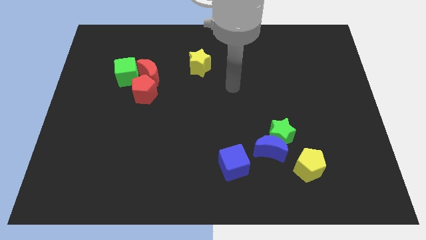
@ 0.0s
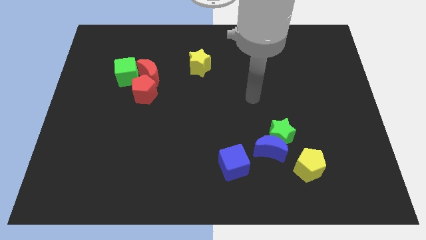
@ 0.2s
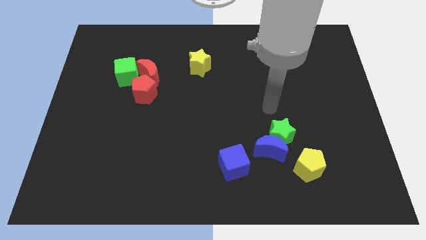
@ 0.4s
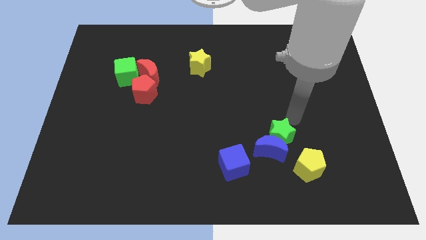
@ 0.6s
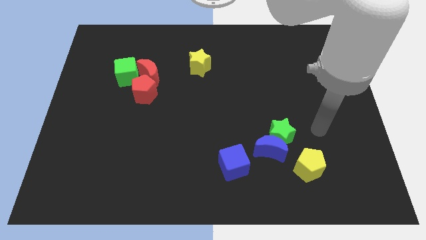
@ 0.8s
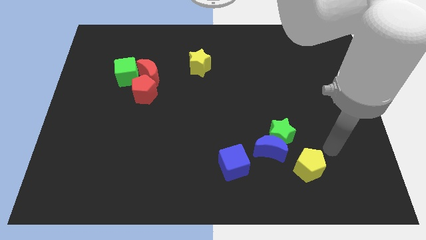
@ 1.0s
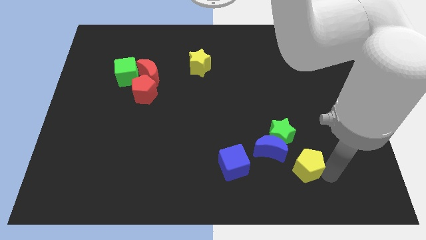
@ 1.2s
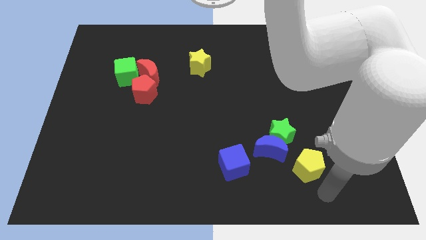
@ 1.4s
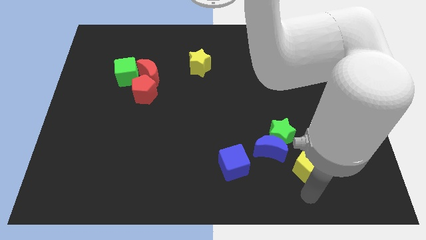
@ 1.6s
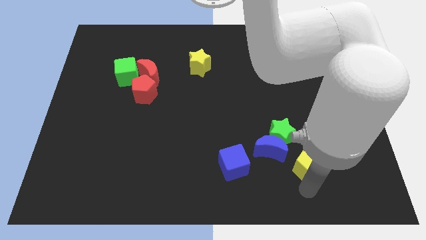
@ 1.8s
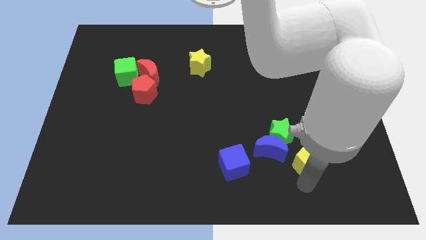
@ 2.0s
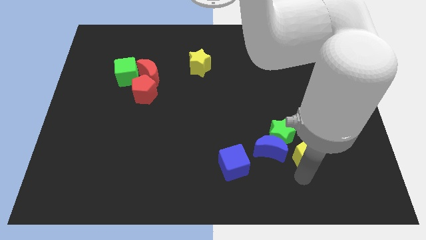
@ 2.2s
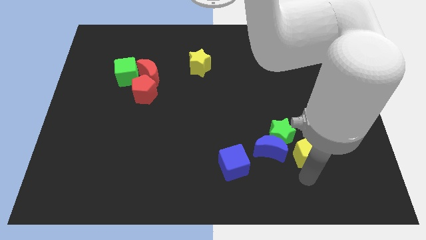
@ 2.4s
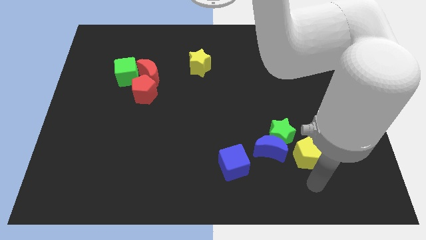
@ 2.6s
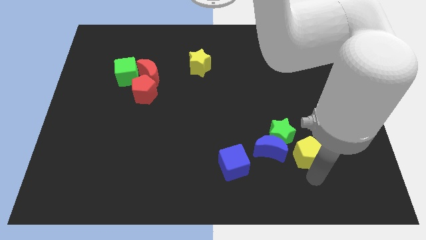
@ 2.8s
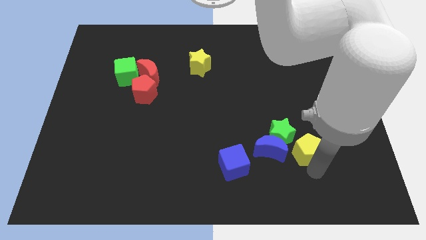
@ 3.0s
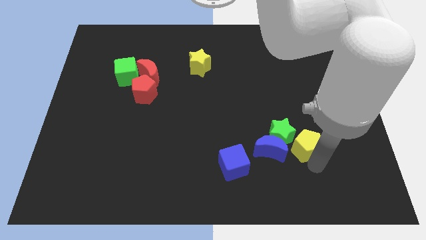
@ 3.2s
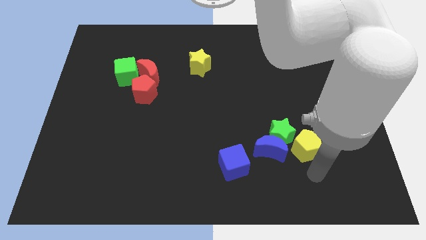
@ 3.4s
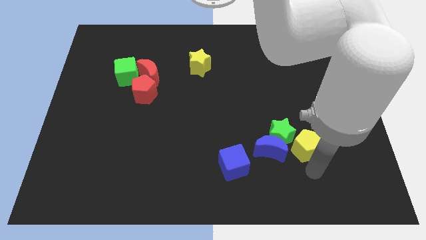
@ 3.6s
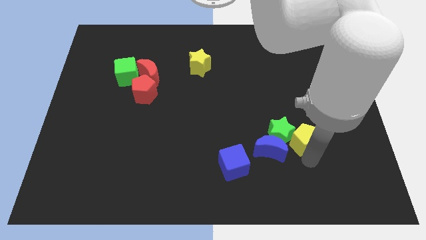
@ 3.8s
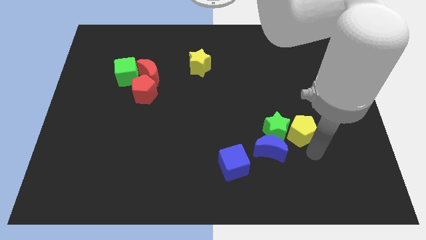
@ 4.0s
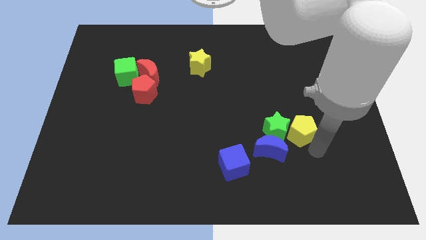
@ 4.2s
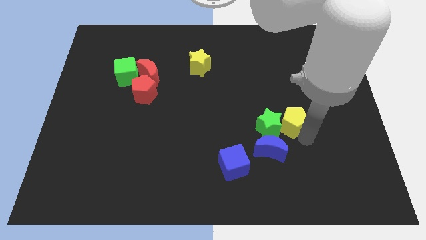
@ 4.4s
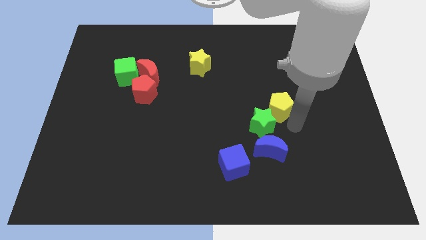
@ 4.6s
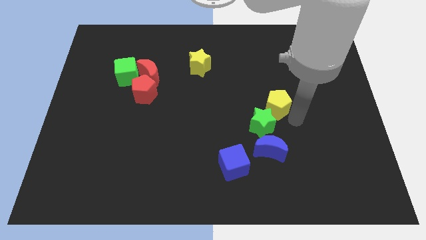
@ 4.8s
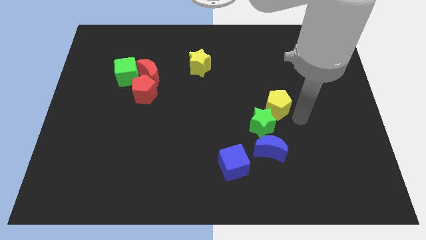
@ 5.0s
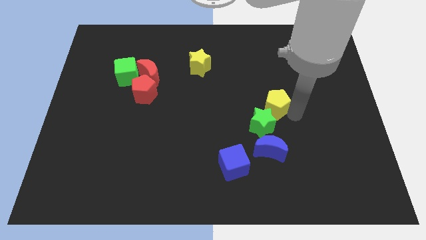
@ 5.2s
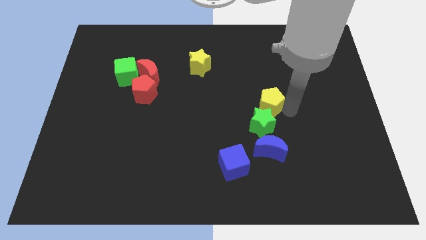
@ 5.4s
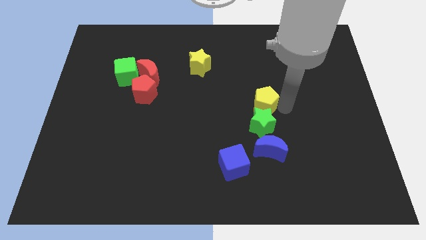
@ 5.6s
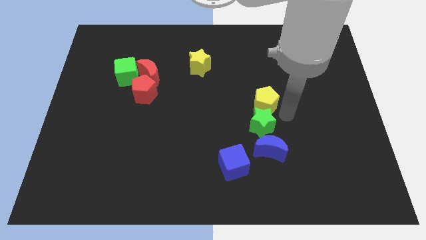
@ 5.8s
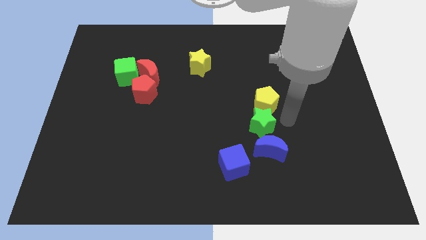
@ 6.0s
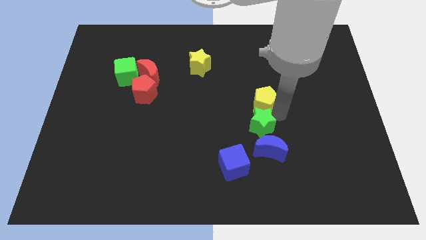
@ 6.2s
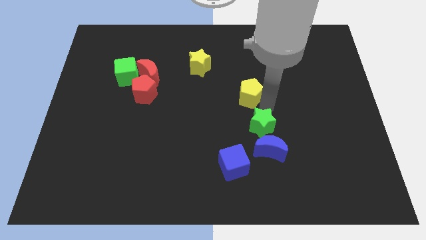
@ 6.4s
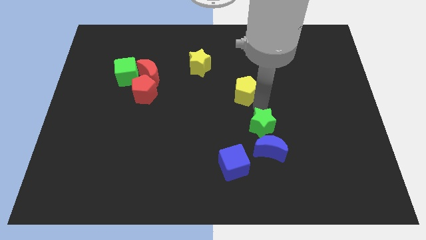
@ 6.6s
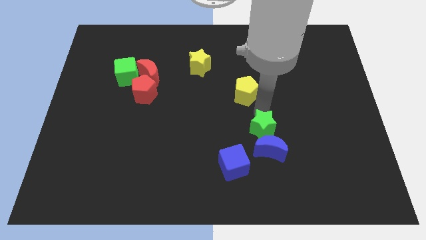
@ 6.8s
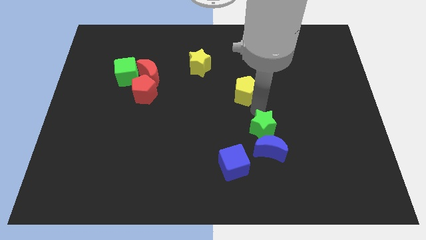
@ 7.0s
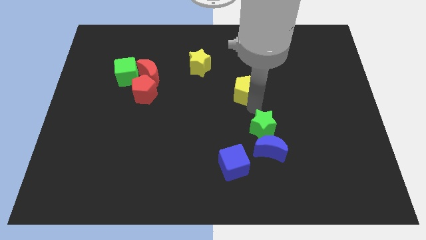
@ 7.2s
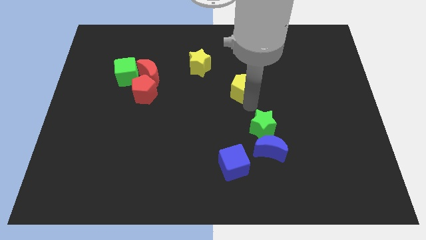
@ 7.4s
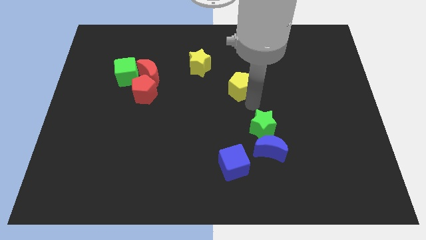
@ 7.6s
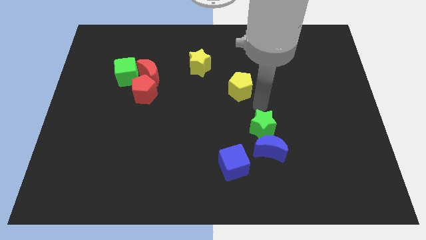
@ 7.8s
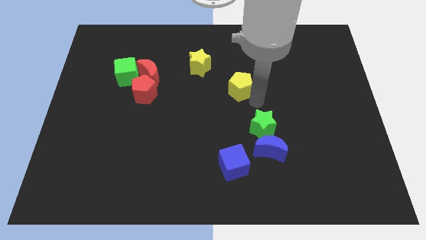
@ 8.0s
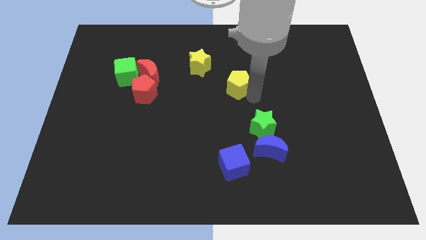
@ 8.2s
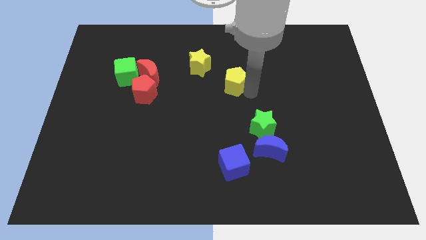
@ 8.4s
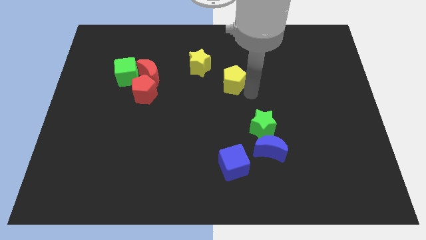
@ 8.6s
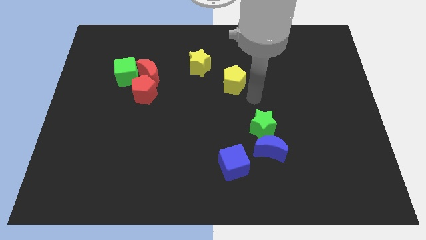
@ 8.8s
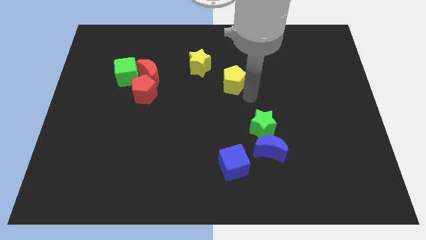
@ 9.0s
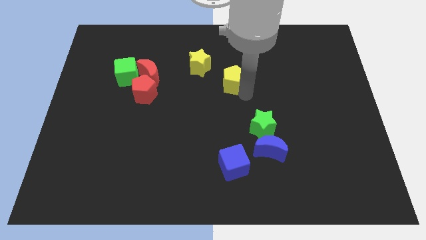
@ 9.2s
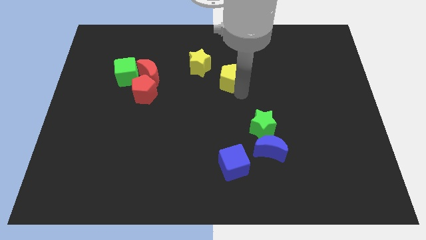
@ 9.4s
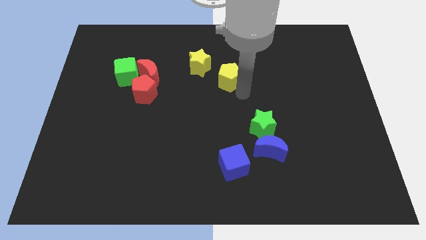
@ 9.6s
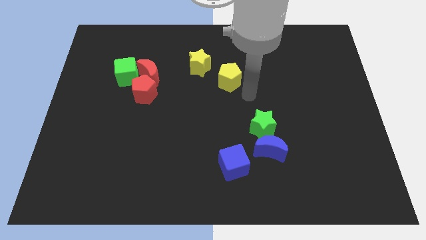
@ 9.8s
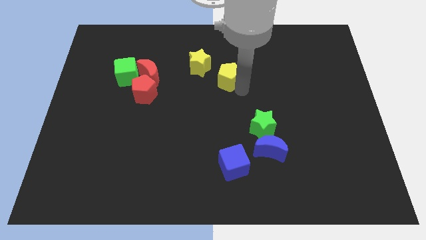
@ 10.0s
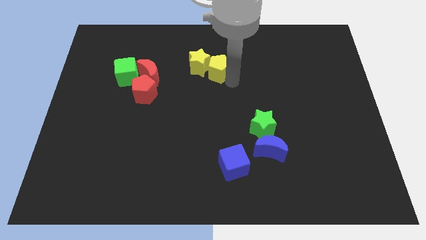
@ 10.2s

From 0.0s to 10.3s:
push the yellow pentagon to the yellow star

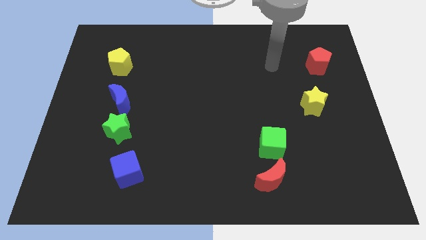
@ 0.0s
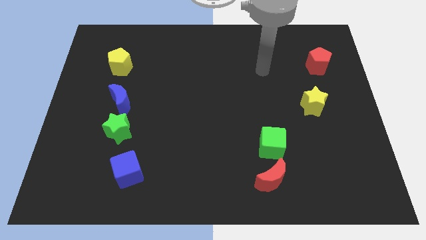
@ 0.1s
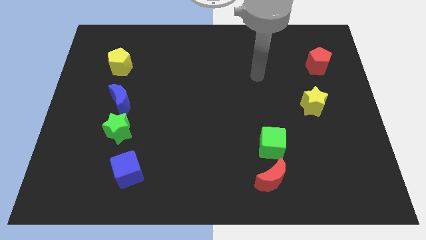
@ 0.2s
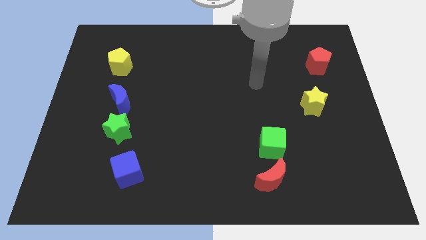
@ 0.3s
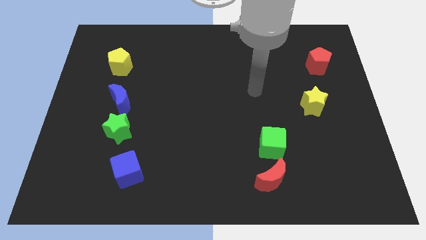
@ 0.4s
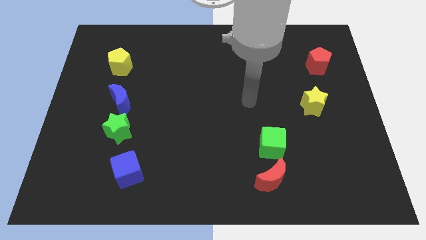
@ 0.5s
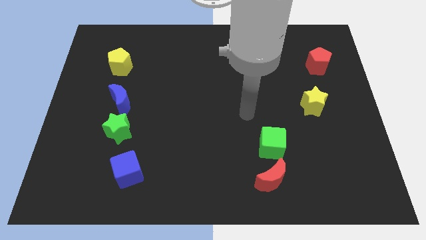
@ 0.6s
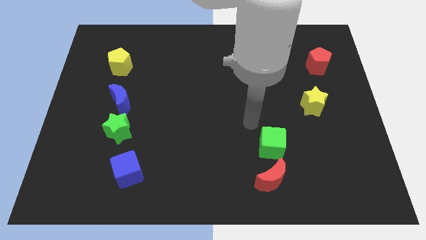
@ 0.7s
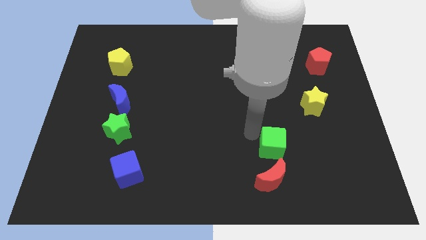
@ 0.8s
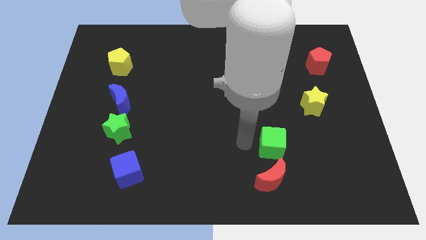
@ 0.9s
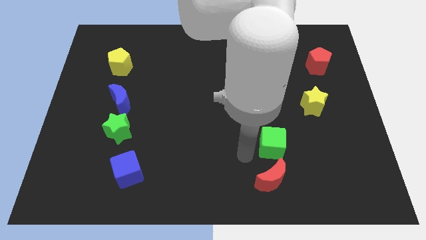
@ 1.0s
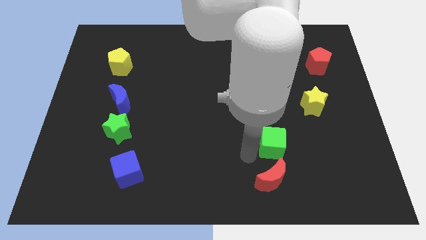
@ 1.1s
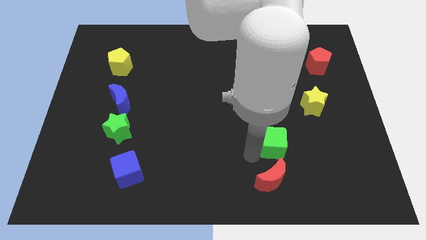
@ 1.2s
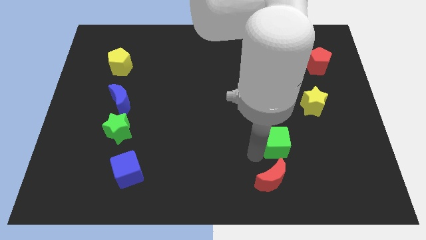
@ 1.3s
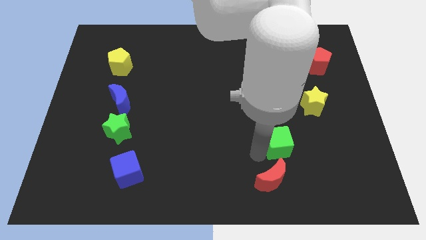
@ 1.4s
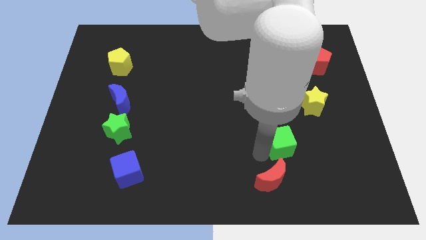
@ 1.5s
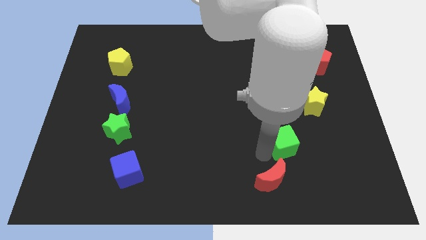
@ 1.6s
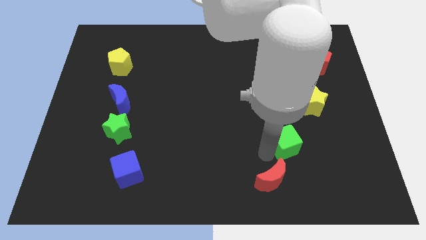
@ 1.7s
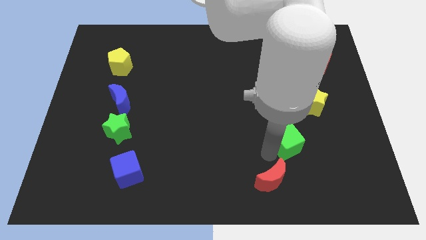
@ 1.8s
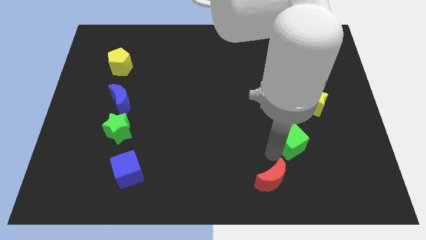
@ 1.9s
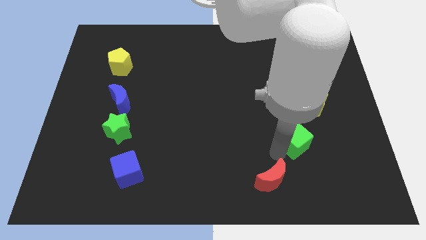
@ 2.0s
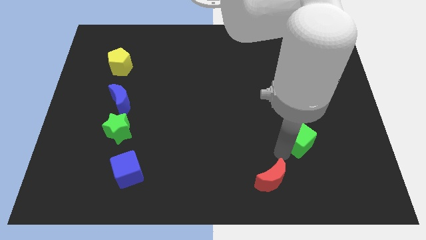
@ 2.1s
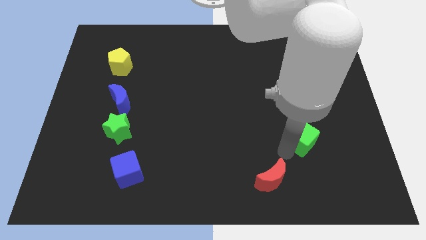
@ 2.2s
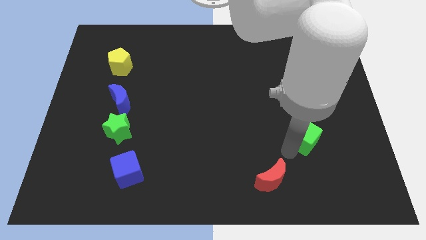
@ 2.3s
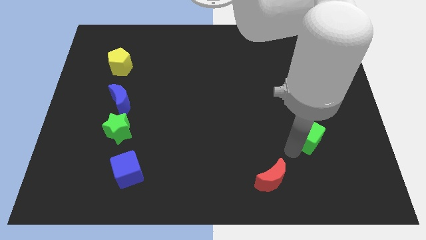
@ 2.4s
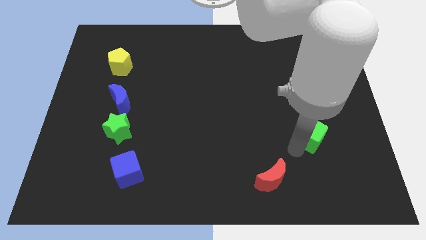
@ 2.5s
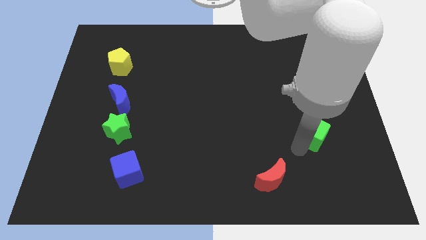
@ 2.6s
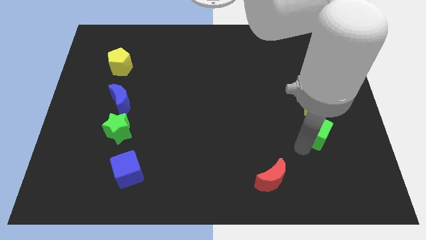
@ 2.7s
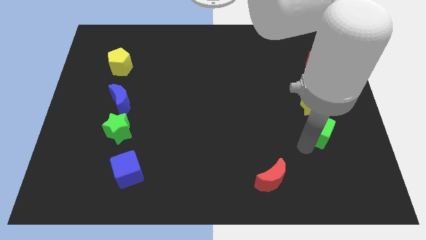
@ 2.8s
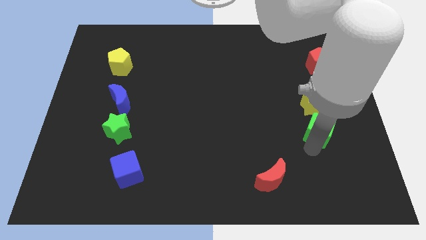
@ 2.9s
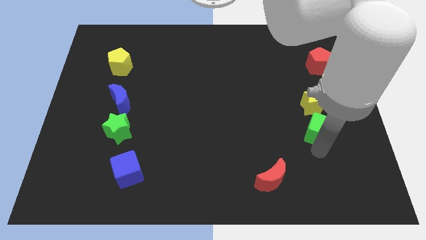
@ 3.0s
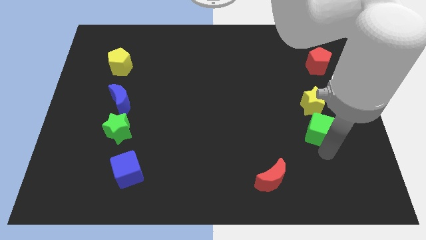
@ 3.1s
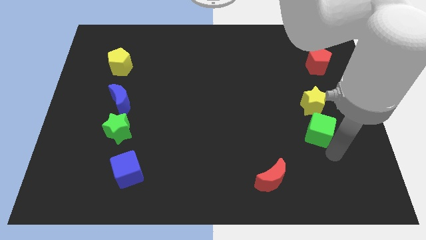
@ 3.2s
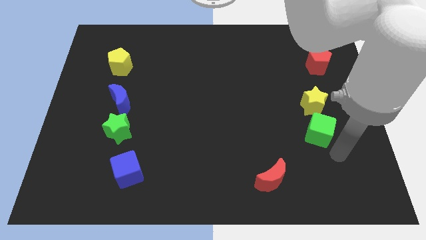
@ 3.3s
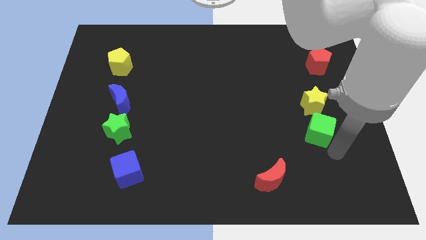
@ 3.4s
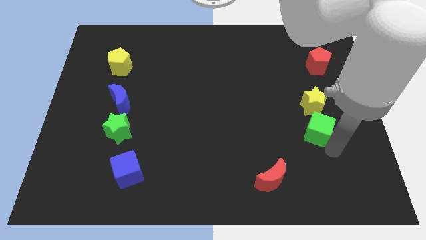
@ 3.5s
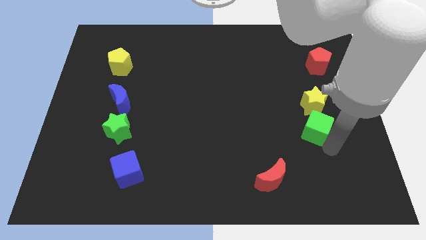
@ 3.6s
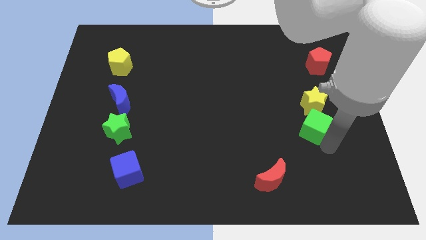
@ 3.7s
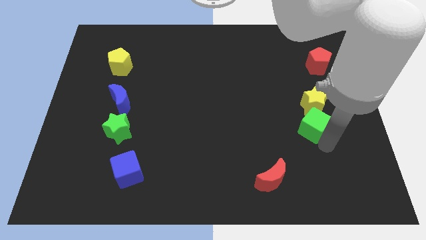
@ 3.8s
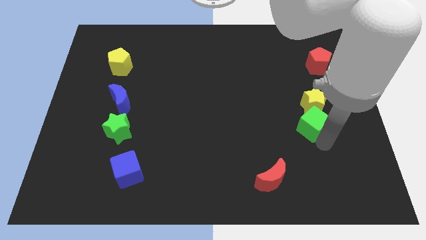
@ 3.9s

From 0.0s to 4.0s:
push the green cube close to the yellow star
